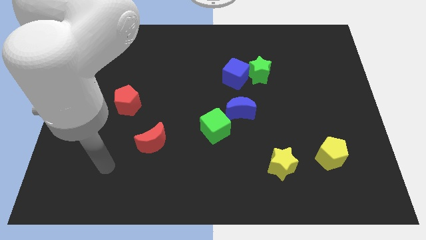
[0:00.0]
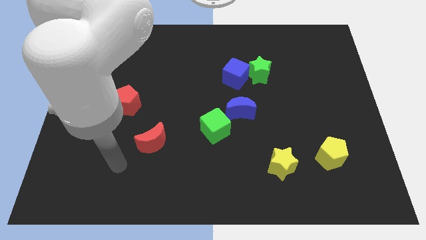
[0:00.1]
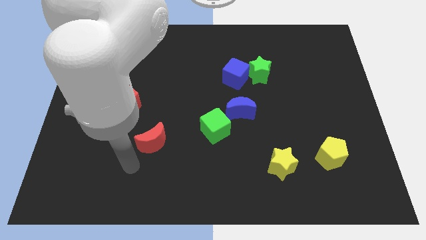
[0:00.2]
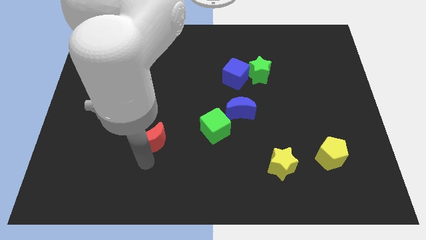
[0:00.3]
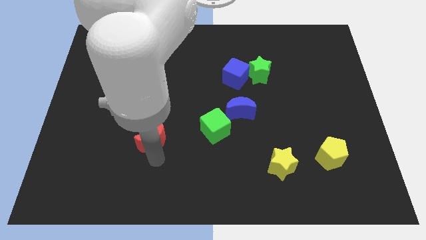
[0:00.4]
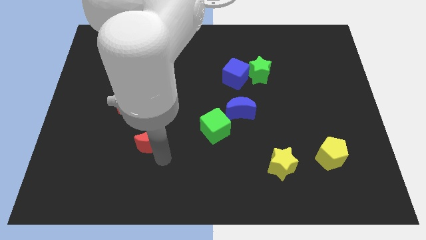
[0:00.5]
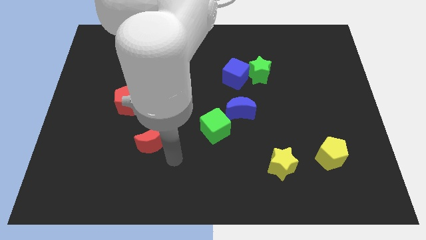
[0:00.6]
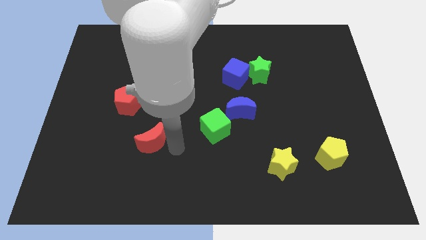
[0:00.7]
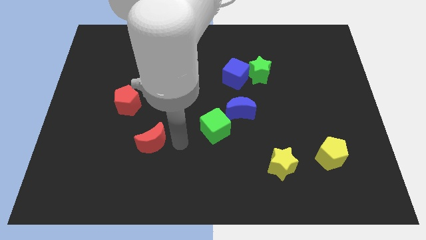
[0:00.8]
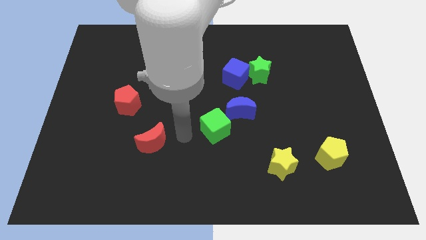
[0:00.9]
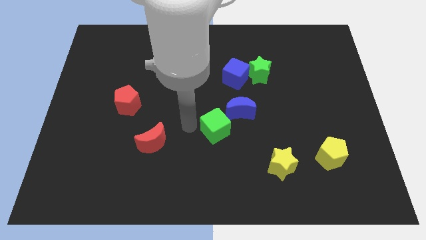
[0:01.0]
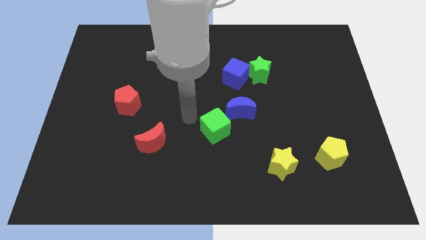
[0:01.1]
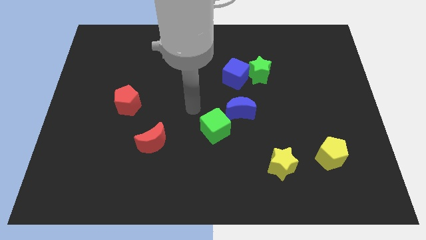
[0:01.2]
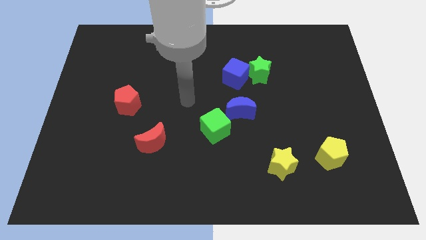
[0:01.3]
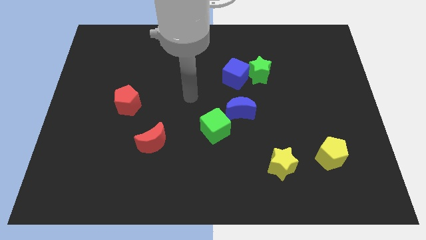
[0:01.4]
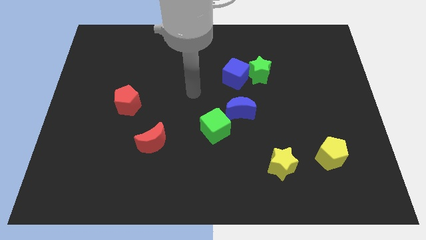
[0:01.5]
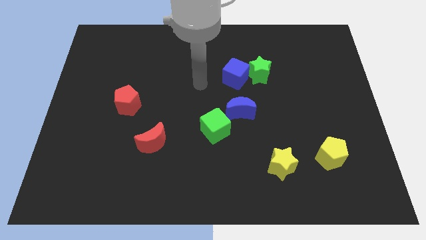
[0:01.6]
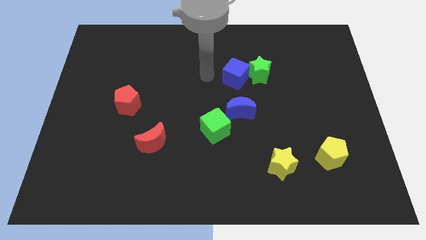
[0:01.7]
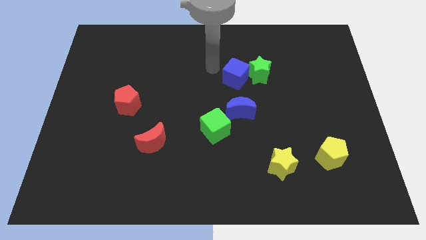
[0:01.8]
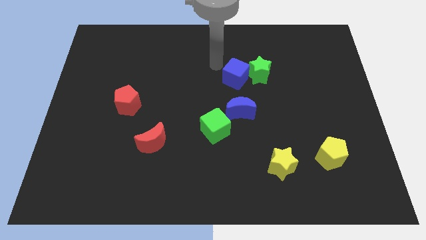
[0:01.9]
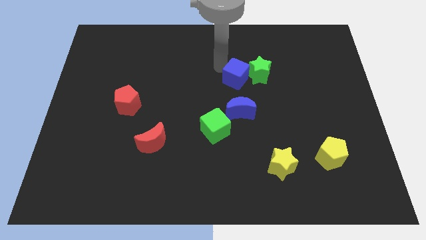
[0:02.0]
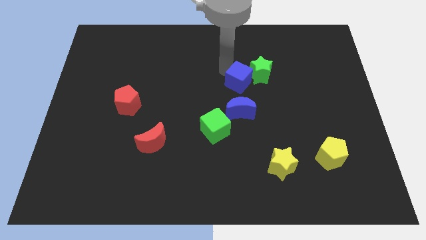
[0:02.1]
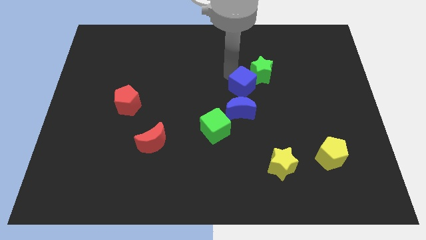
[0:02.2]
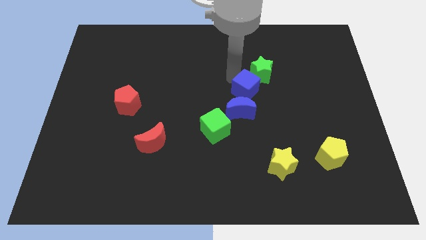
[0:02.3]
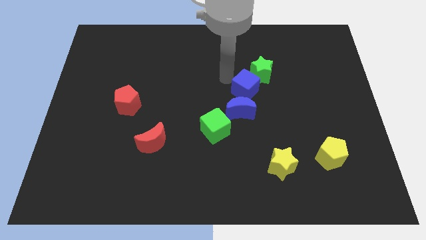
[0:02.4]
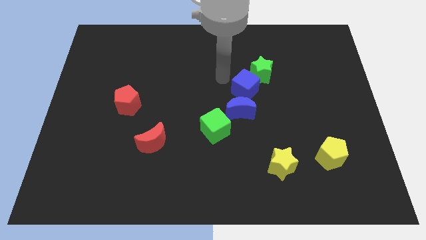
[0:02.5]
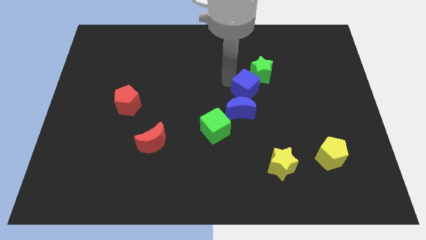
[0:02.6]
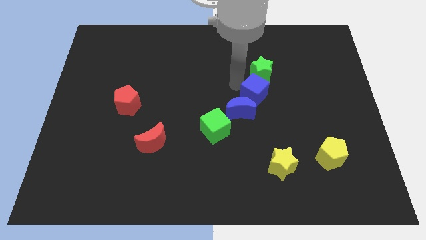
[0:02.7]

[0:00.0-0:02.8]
slide the blue cube a bit diagonally downwards and right

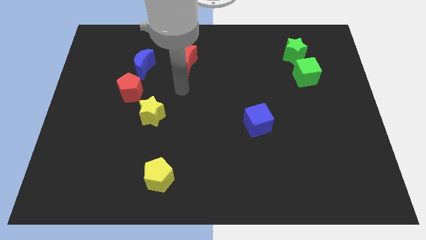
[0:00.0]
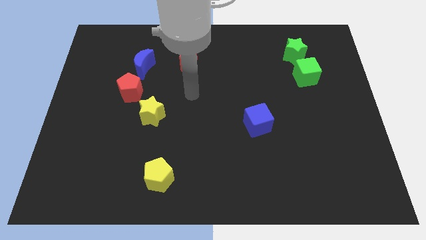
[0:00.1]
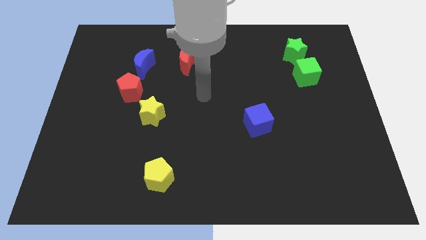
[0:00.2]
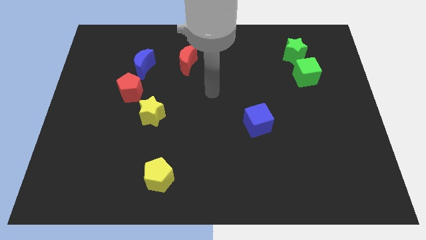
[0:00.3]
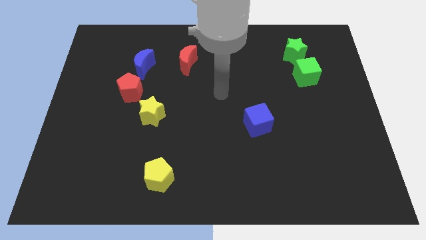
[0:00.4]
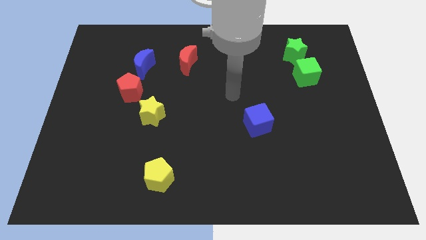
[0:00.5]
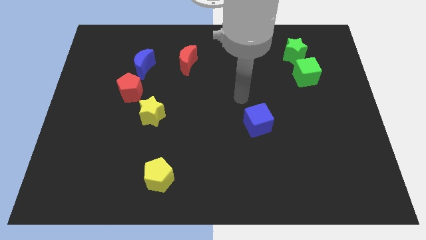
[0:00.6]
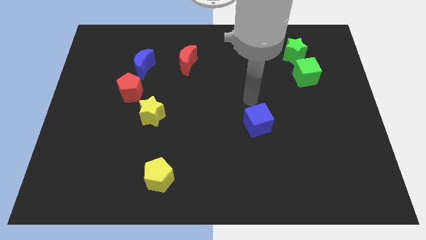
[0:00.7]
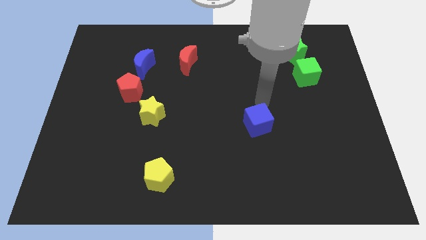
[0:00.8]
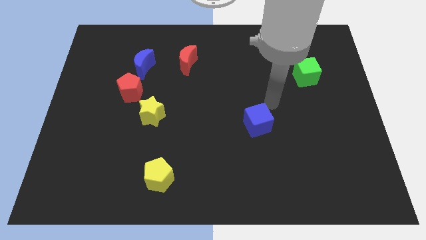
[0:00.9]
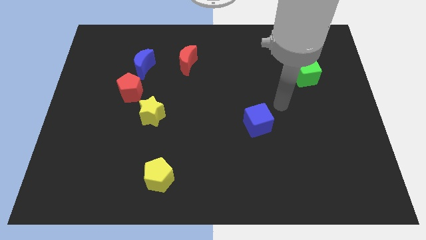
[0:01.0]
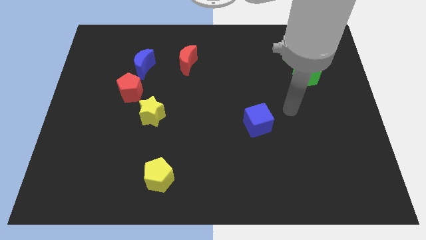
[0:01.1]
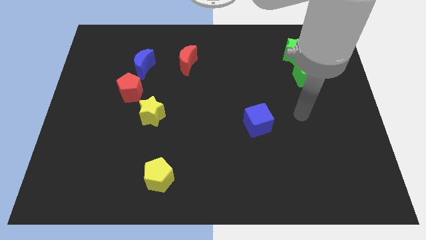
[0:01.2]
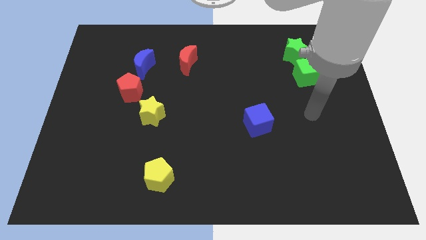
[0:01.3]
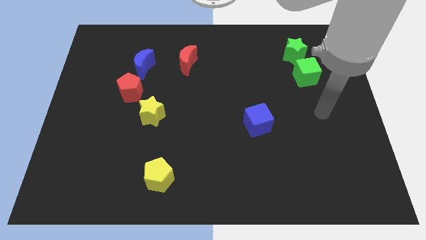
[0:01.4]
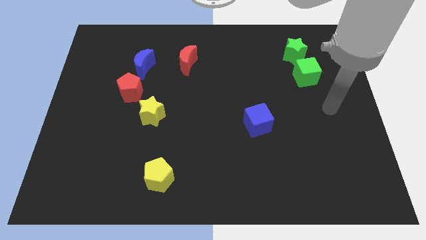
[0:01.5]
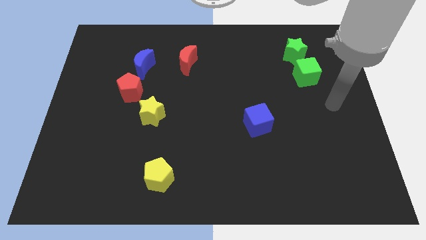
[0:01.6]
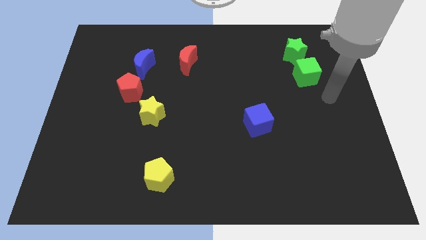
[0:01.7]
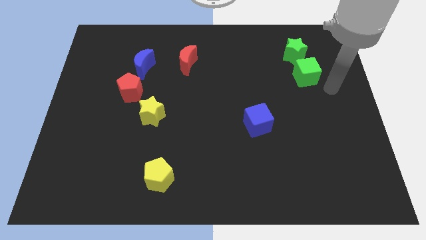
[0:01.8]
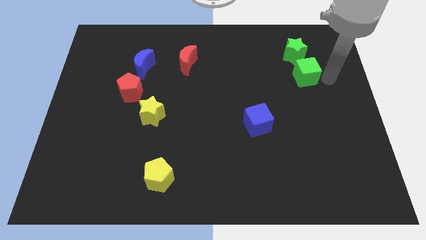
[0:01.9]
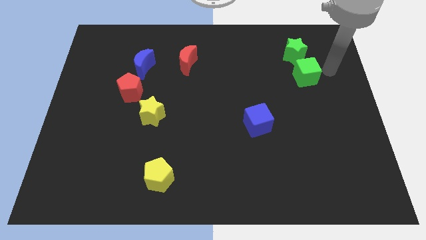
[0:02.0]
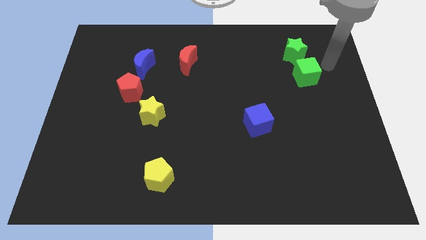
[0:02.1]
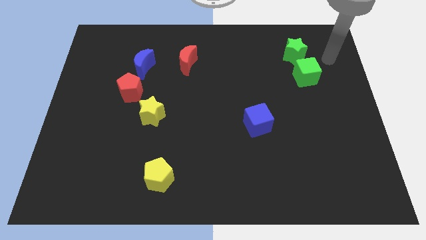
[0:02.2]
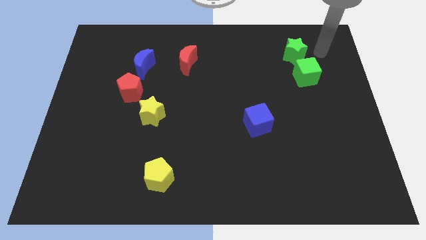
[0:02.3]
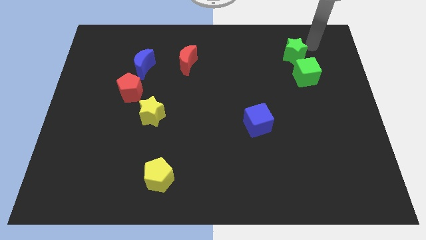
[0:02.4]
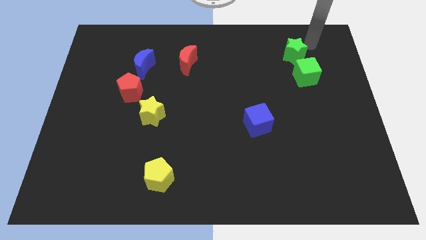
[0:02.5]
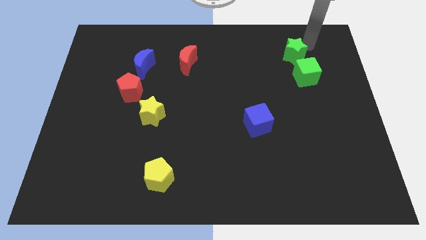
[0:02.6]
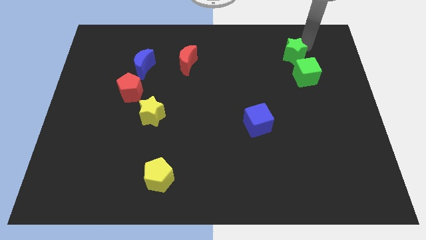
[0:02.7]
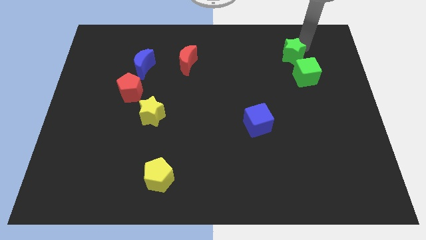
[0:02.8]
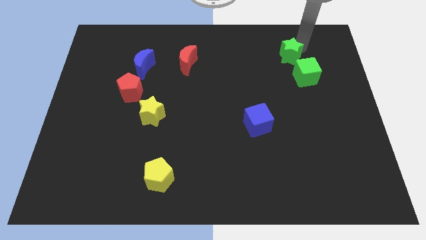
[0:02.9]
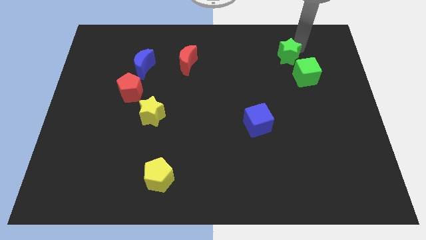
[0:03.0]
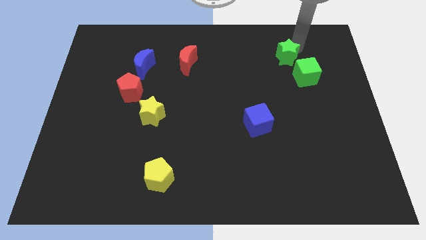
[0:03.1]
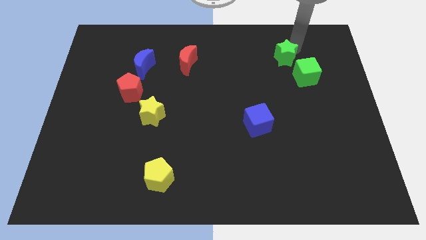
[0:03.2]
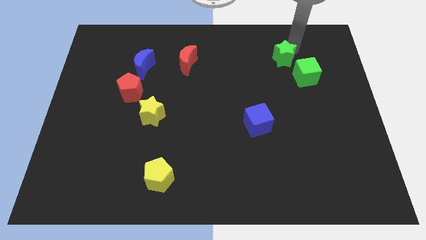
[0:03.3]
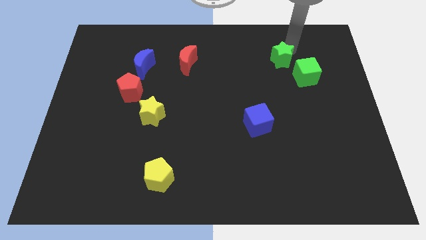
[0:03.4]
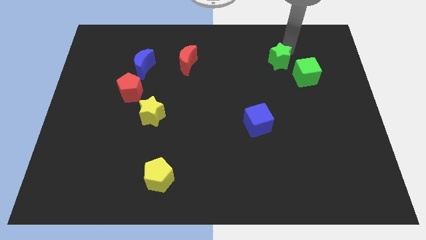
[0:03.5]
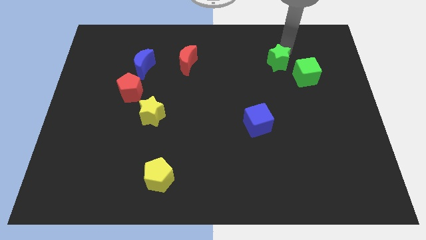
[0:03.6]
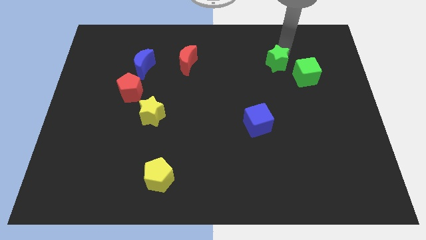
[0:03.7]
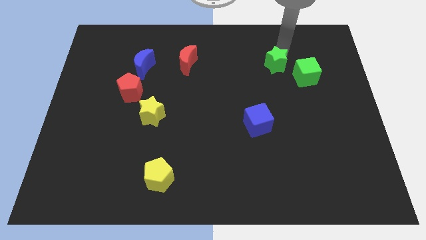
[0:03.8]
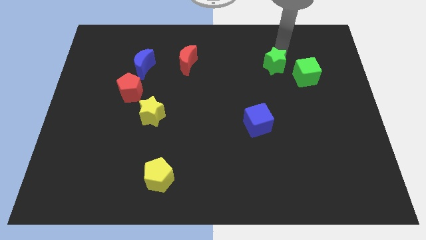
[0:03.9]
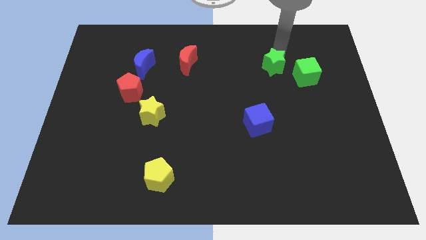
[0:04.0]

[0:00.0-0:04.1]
slightly move the green star downwards and left diagonally

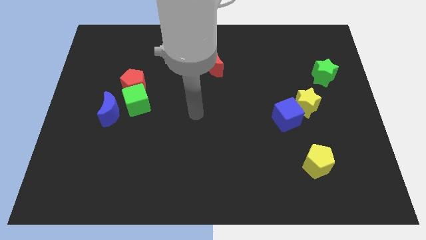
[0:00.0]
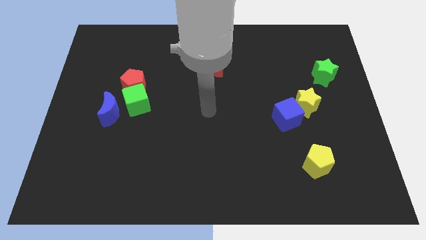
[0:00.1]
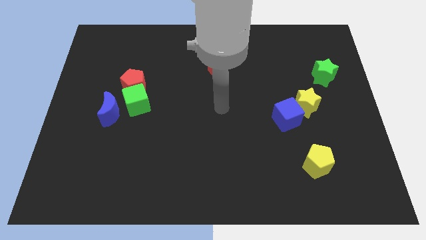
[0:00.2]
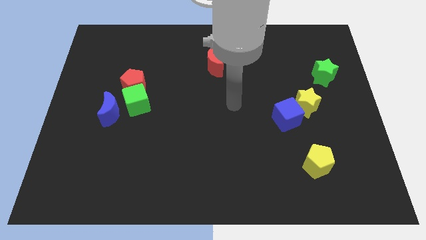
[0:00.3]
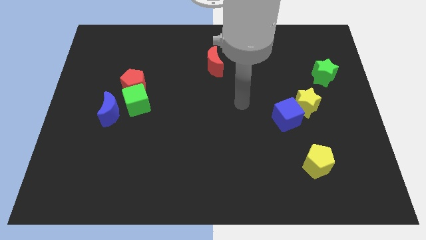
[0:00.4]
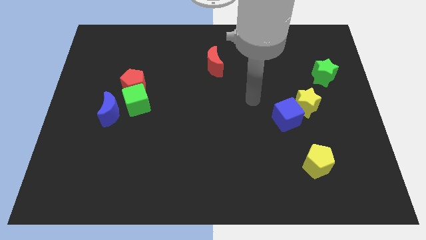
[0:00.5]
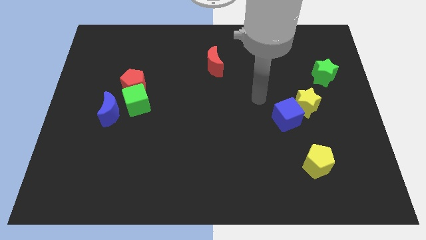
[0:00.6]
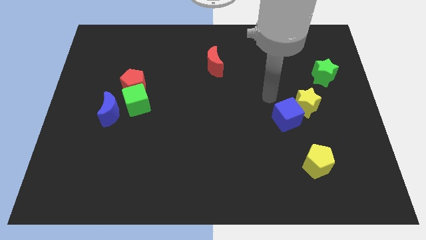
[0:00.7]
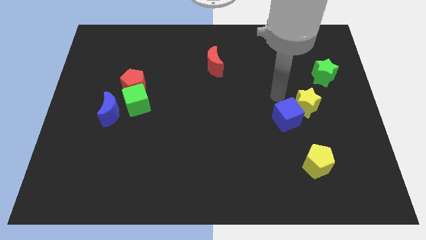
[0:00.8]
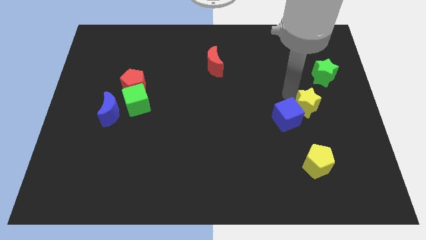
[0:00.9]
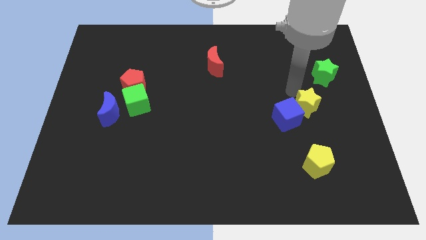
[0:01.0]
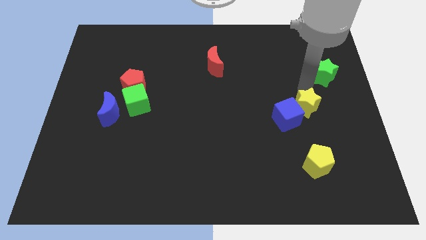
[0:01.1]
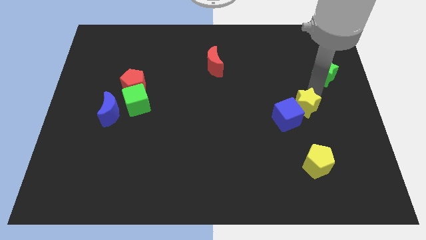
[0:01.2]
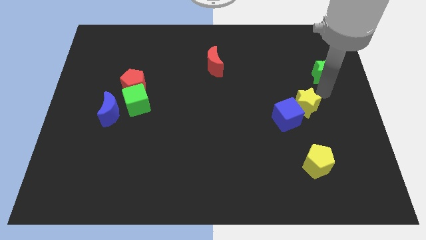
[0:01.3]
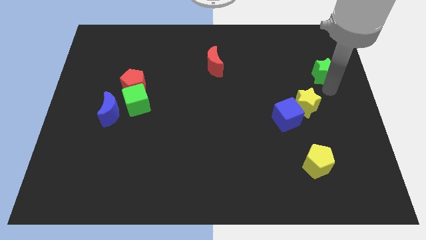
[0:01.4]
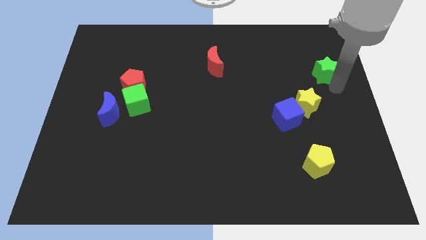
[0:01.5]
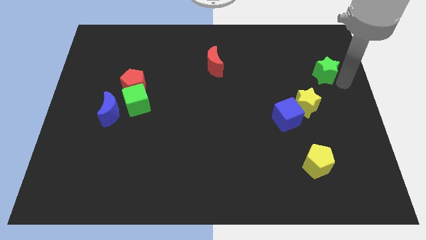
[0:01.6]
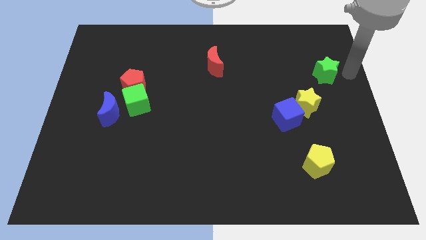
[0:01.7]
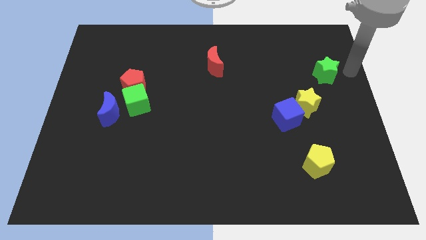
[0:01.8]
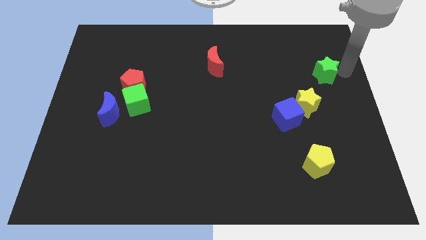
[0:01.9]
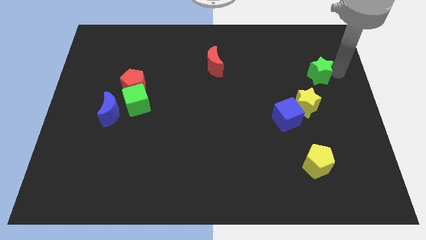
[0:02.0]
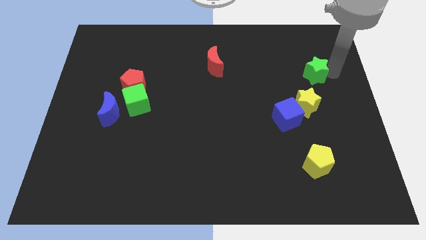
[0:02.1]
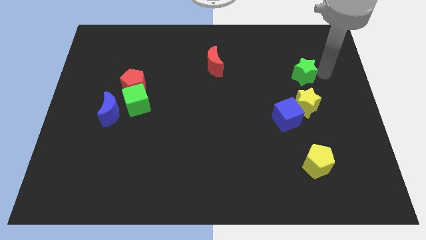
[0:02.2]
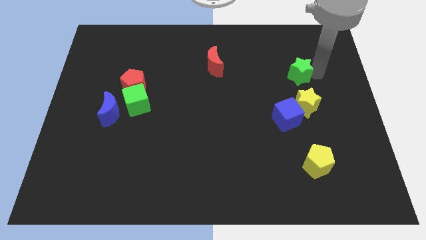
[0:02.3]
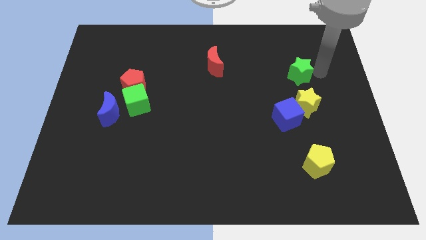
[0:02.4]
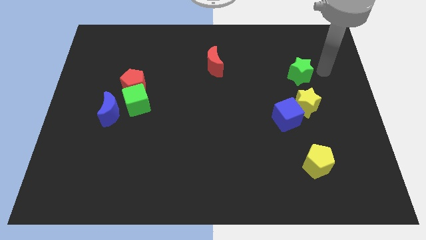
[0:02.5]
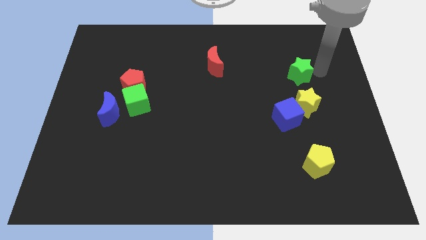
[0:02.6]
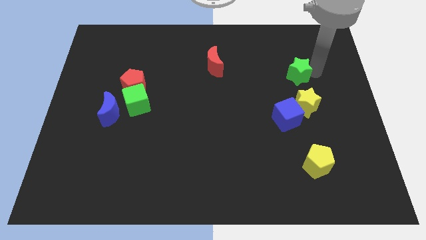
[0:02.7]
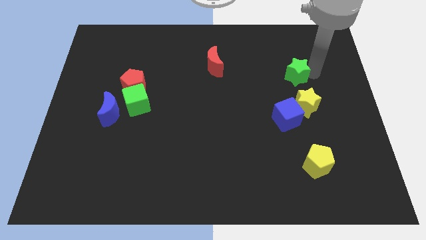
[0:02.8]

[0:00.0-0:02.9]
slide the green star a little to the left
